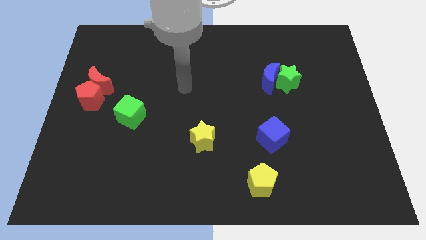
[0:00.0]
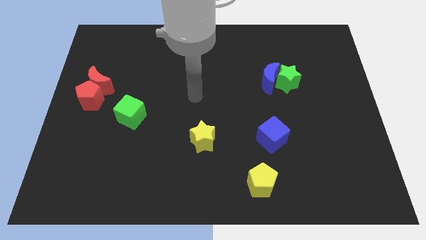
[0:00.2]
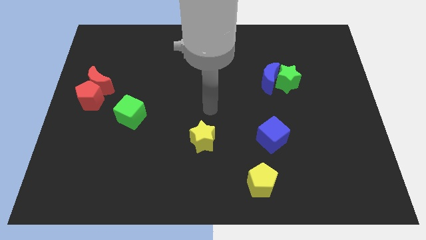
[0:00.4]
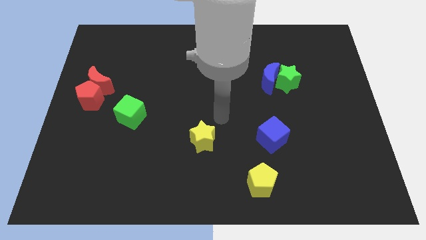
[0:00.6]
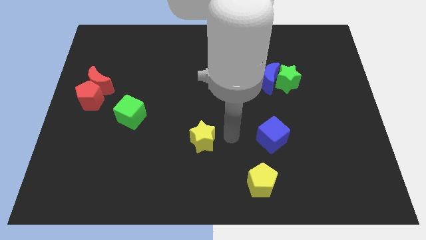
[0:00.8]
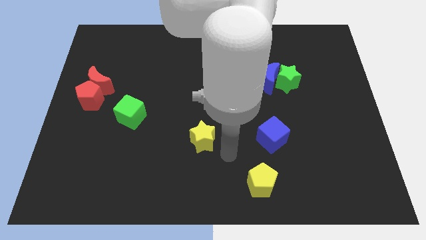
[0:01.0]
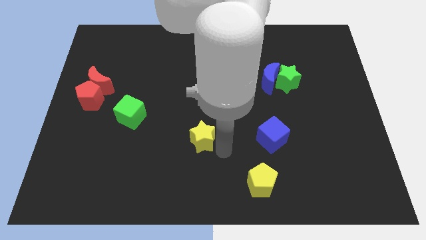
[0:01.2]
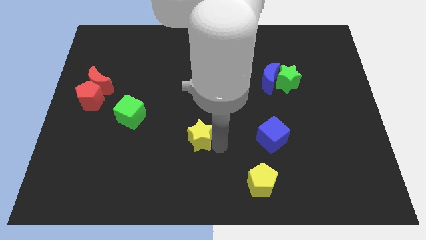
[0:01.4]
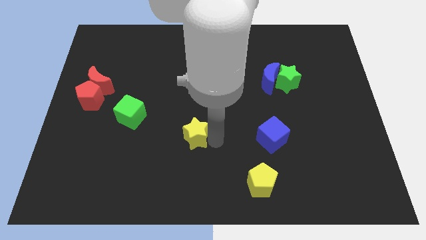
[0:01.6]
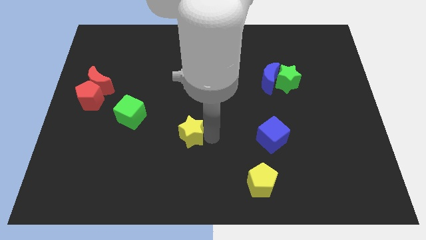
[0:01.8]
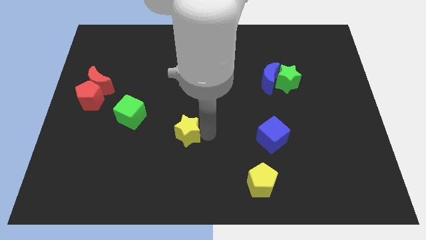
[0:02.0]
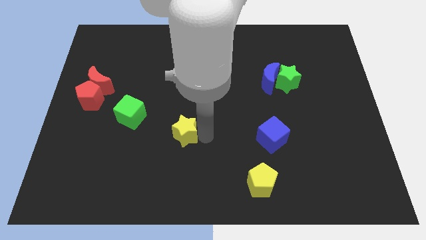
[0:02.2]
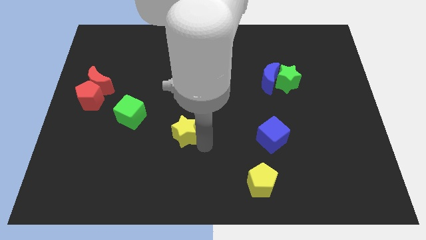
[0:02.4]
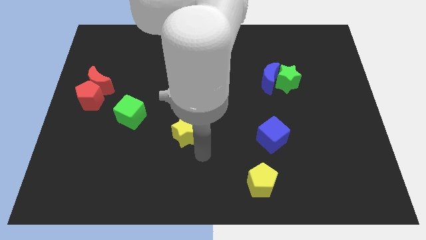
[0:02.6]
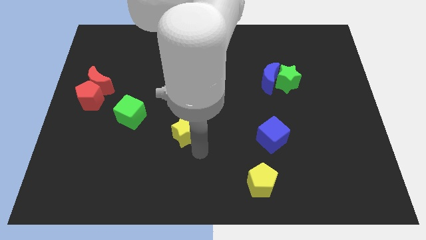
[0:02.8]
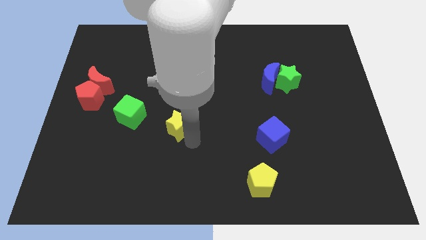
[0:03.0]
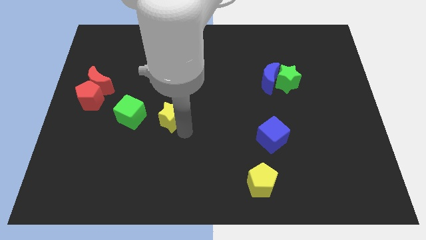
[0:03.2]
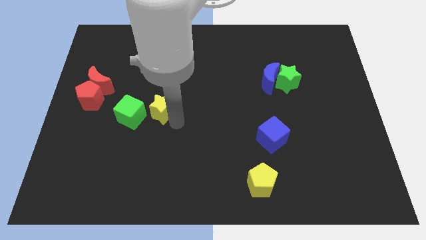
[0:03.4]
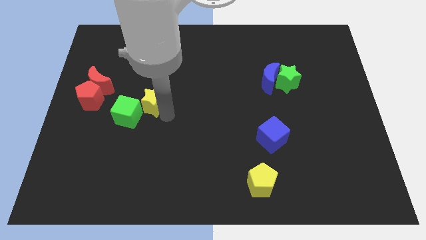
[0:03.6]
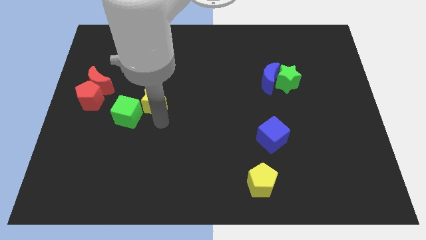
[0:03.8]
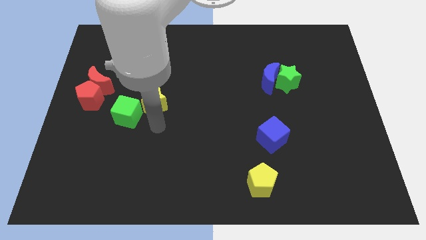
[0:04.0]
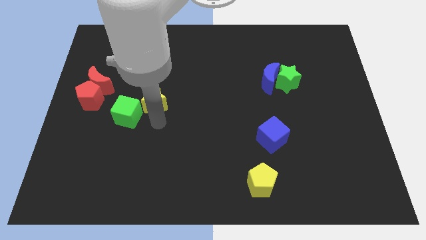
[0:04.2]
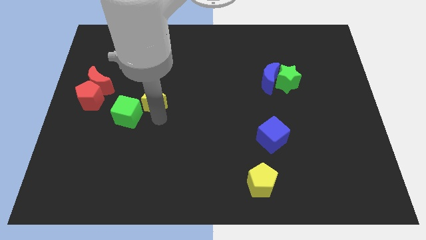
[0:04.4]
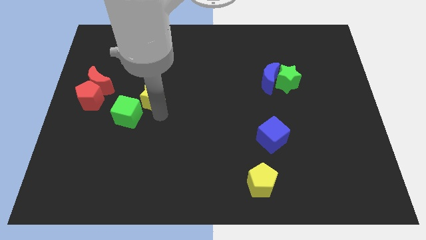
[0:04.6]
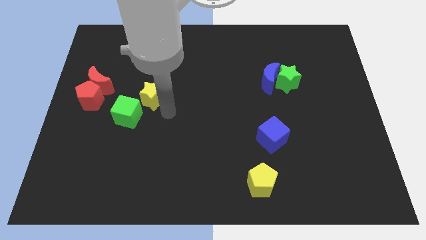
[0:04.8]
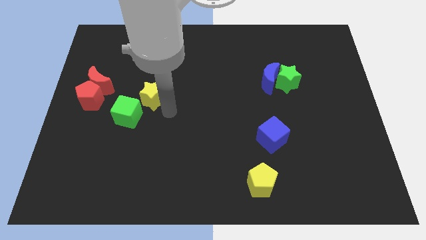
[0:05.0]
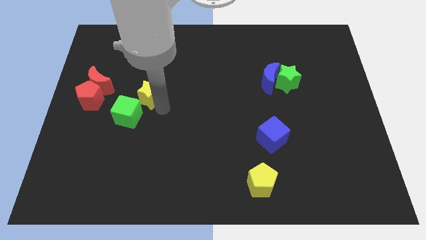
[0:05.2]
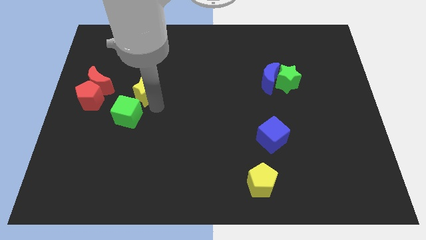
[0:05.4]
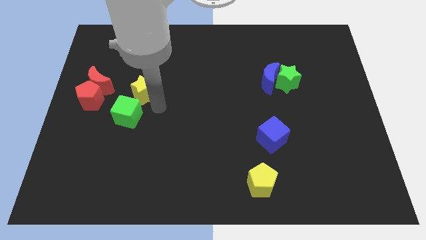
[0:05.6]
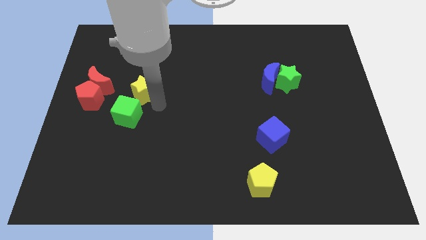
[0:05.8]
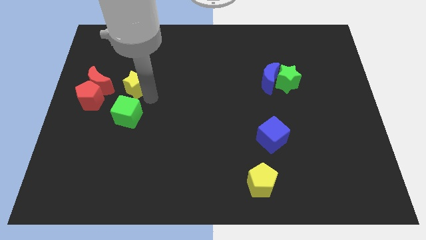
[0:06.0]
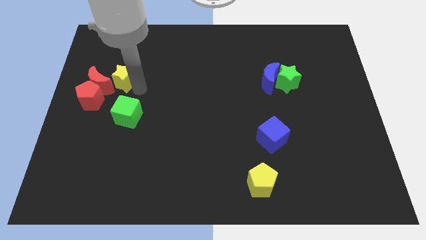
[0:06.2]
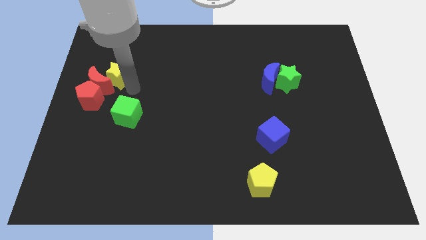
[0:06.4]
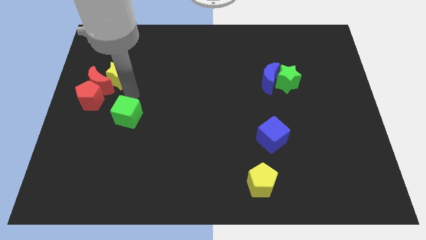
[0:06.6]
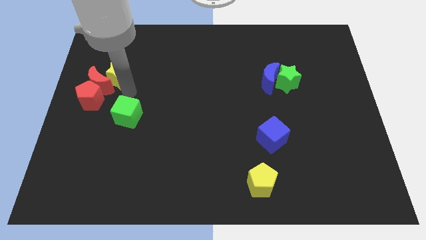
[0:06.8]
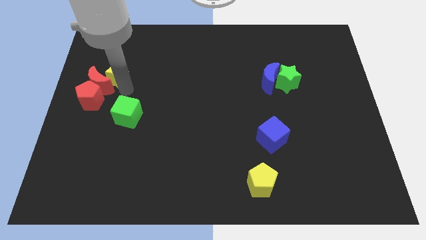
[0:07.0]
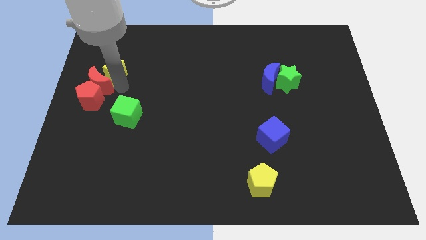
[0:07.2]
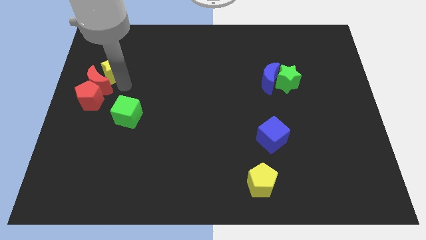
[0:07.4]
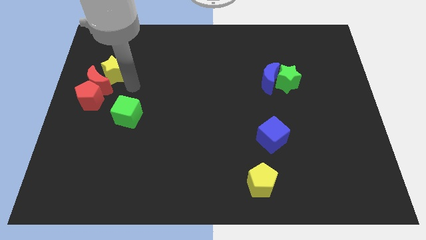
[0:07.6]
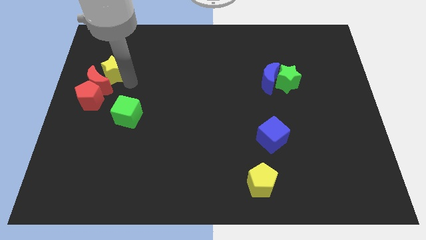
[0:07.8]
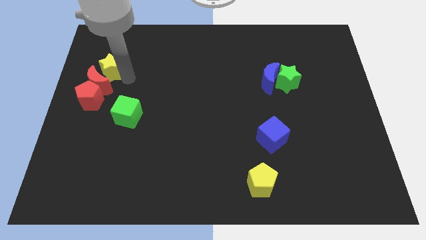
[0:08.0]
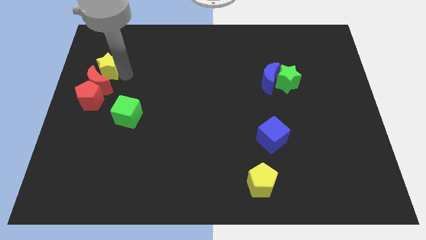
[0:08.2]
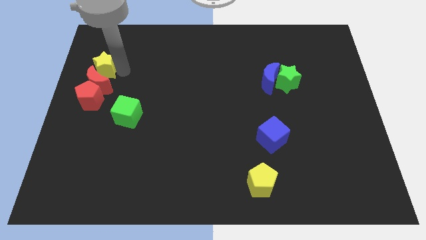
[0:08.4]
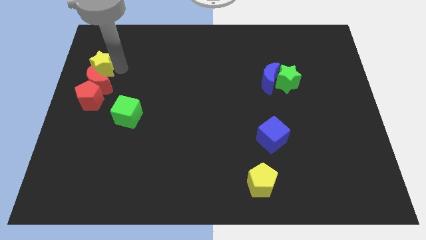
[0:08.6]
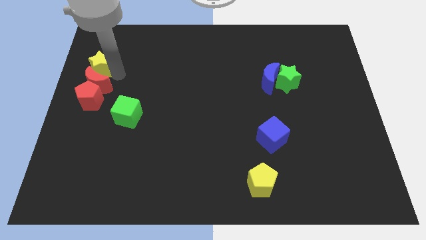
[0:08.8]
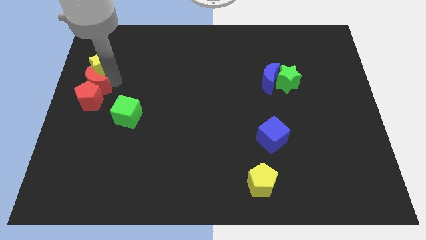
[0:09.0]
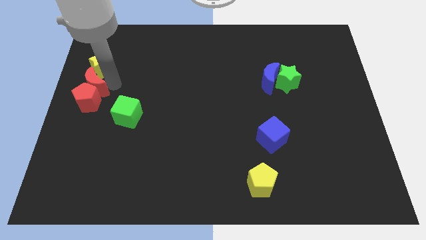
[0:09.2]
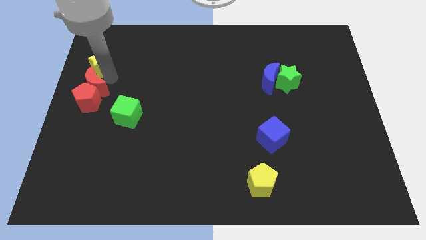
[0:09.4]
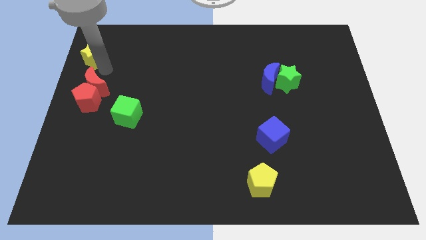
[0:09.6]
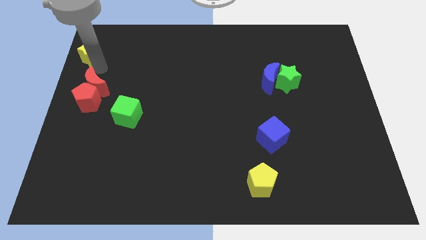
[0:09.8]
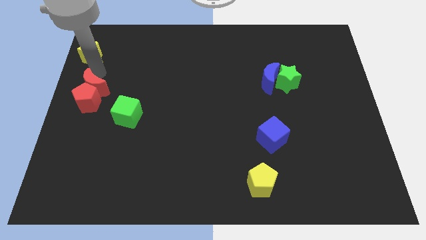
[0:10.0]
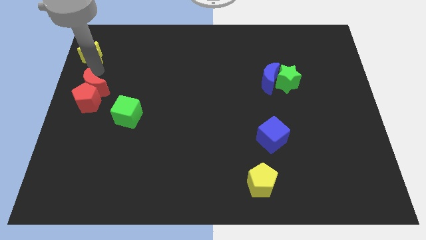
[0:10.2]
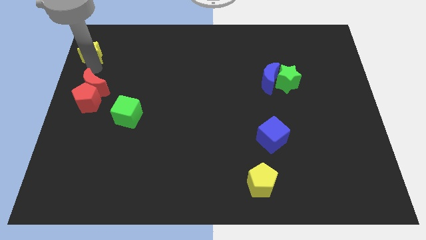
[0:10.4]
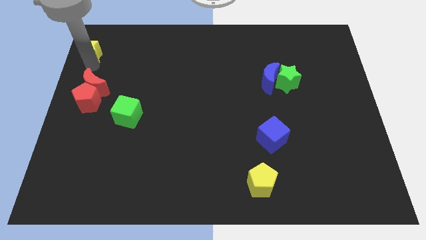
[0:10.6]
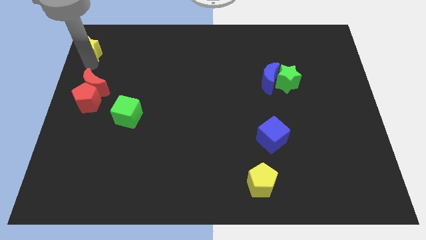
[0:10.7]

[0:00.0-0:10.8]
put the yellow star to the upper left corner
